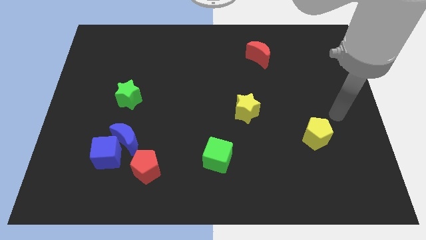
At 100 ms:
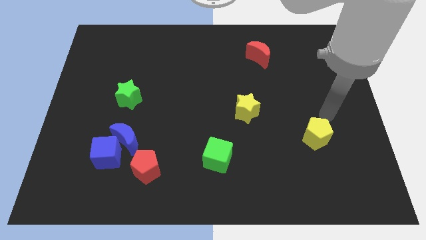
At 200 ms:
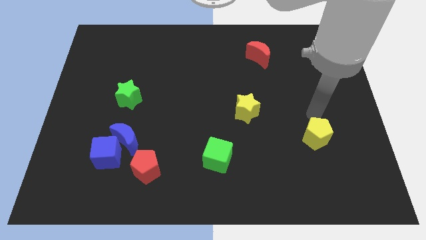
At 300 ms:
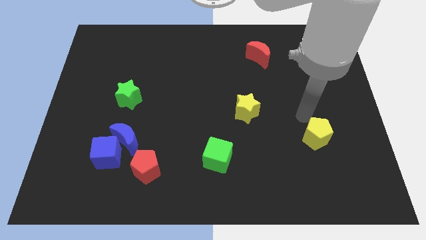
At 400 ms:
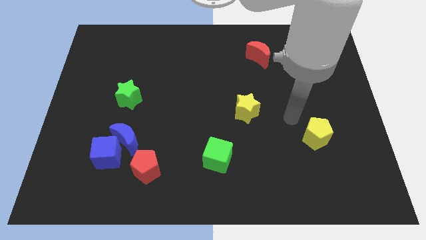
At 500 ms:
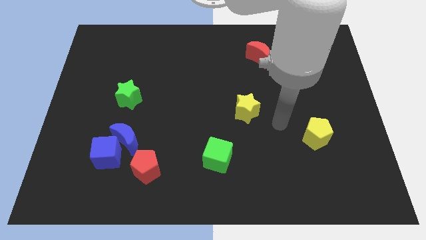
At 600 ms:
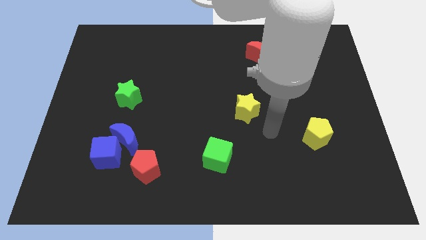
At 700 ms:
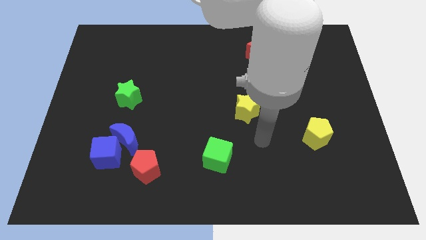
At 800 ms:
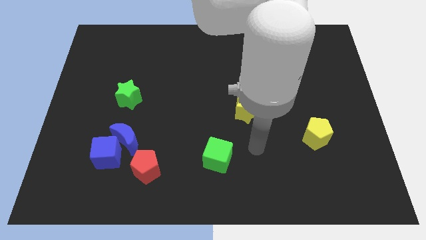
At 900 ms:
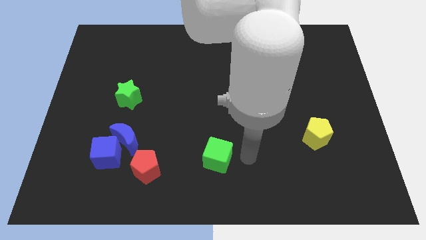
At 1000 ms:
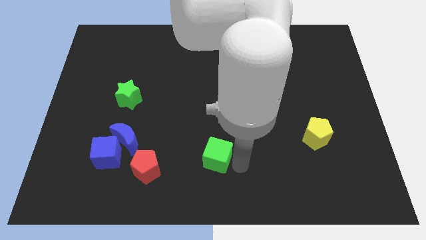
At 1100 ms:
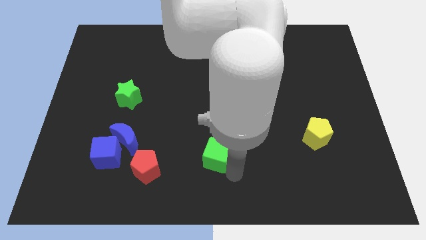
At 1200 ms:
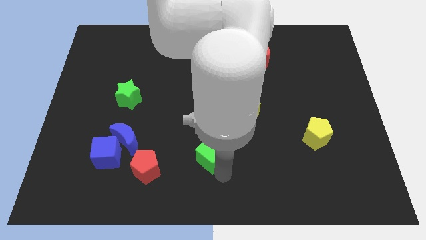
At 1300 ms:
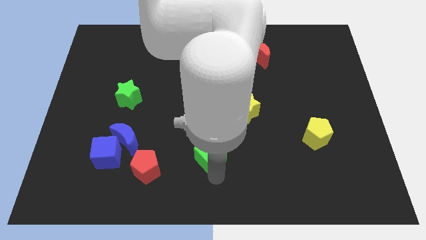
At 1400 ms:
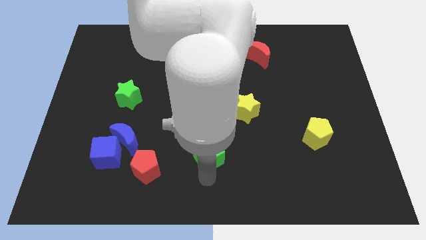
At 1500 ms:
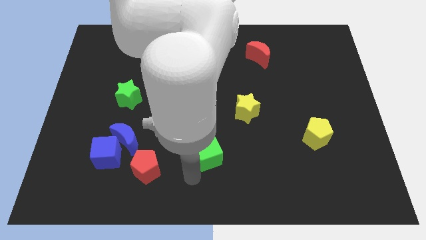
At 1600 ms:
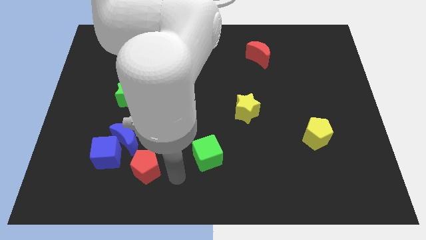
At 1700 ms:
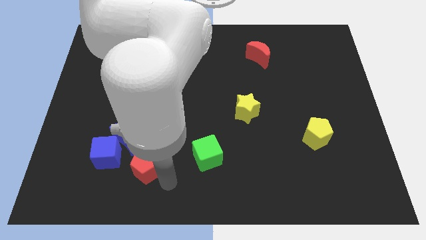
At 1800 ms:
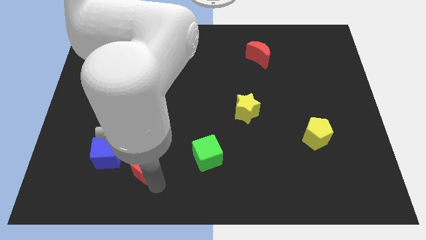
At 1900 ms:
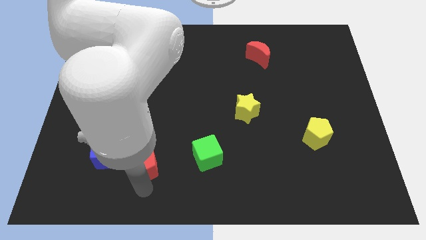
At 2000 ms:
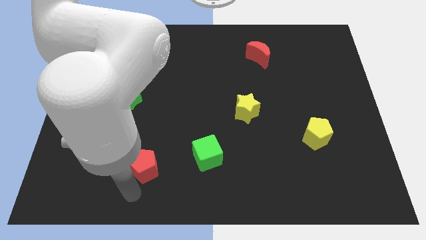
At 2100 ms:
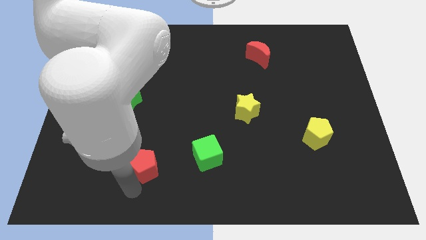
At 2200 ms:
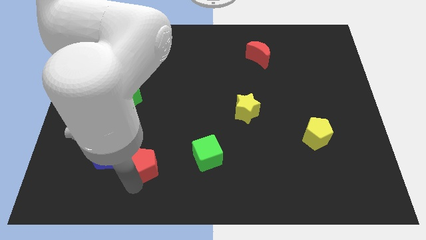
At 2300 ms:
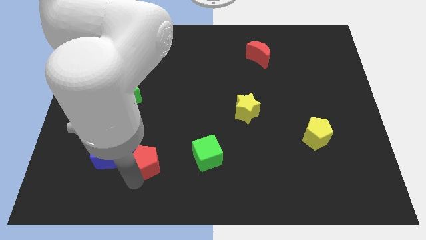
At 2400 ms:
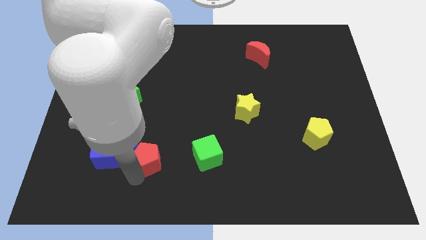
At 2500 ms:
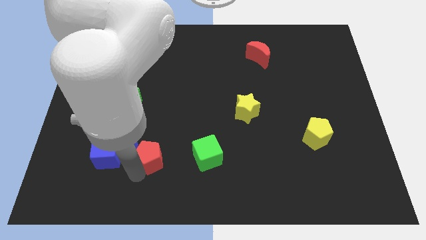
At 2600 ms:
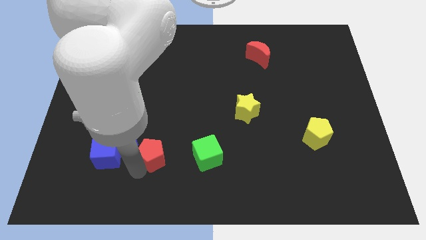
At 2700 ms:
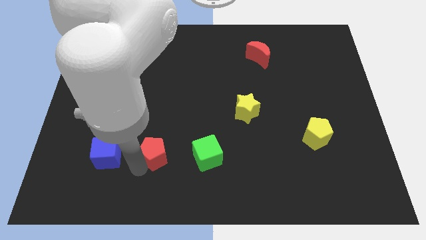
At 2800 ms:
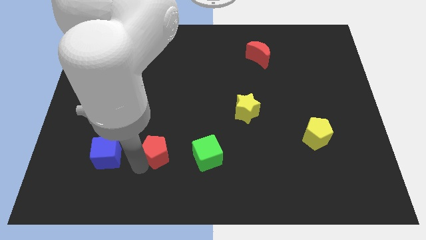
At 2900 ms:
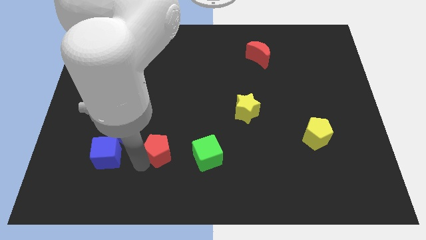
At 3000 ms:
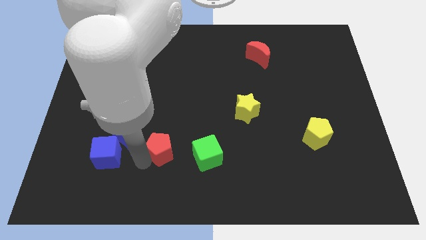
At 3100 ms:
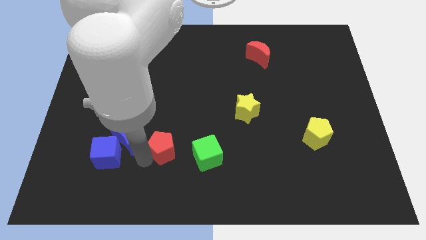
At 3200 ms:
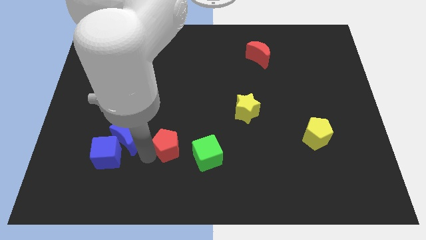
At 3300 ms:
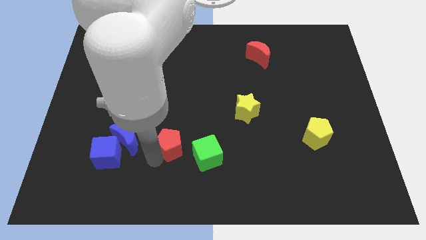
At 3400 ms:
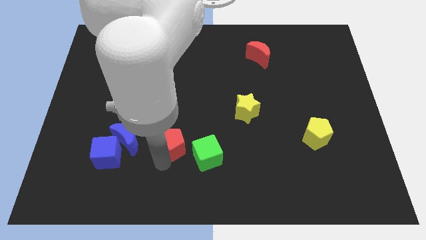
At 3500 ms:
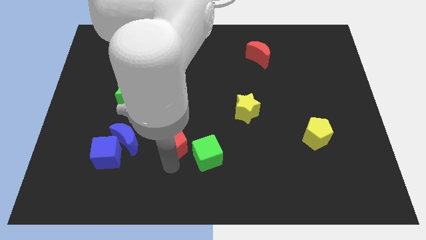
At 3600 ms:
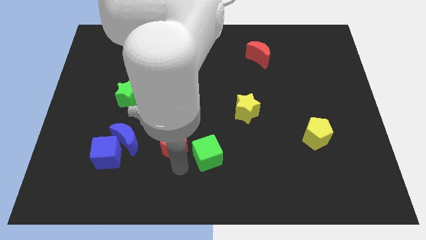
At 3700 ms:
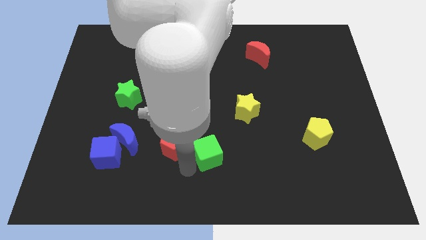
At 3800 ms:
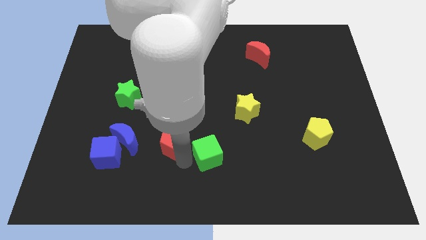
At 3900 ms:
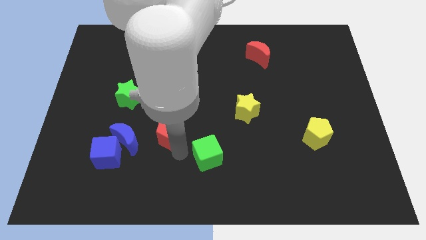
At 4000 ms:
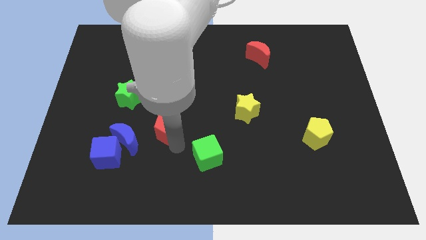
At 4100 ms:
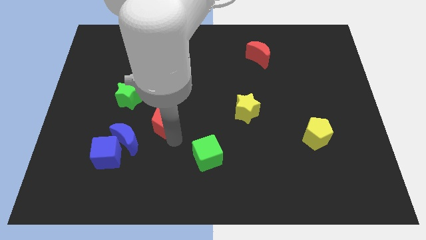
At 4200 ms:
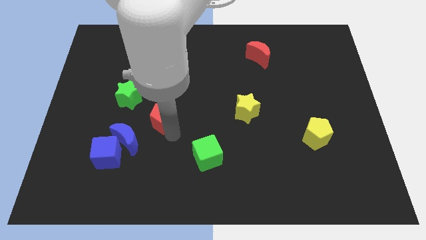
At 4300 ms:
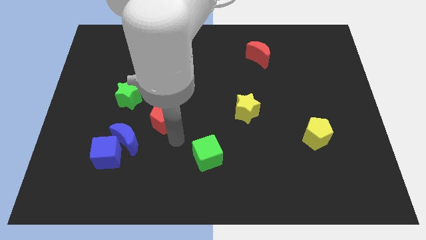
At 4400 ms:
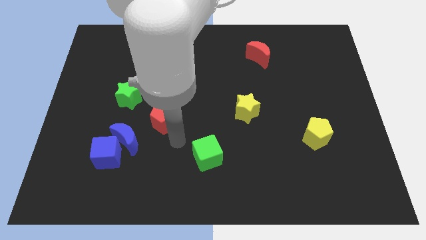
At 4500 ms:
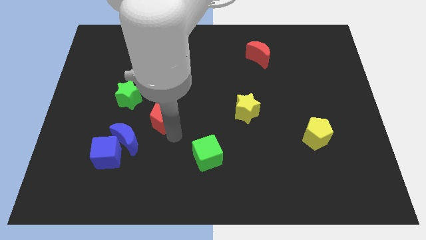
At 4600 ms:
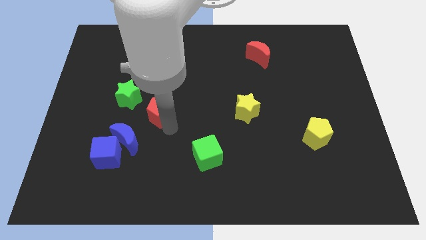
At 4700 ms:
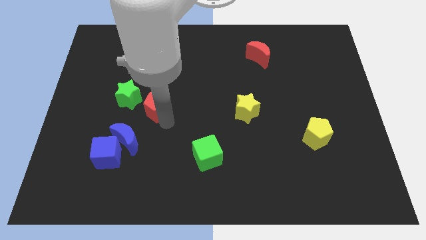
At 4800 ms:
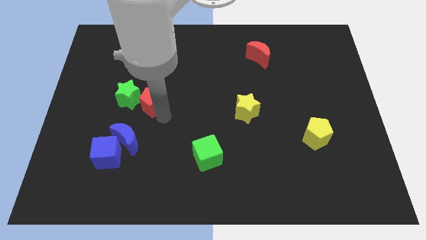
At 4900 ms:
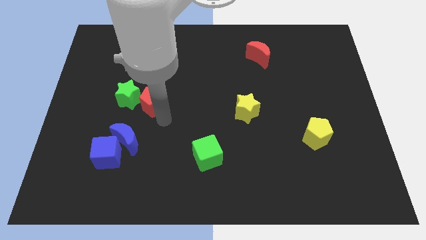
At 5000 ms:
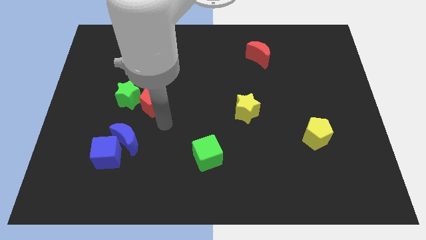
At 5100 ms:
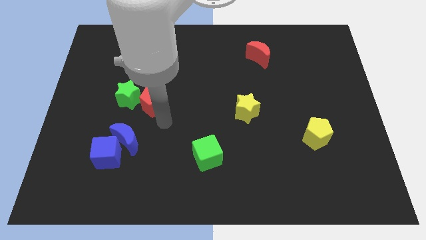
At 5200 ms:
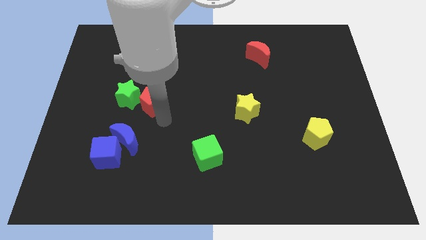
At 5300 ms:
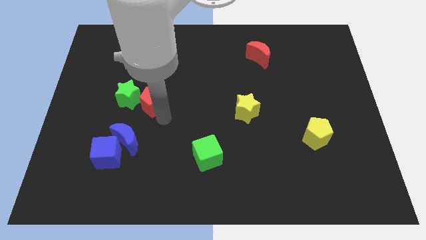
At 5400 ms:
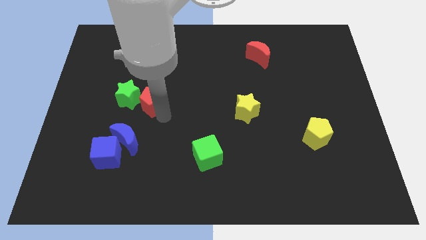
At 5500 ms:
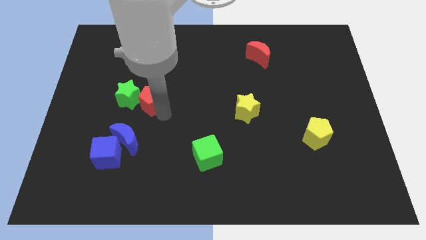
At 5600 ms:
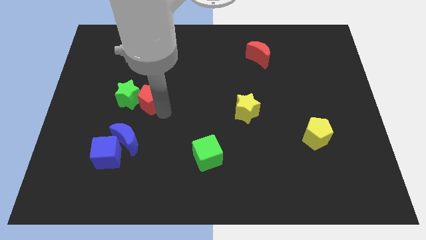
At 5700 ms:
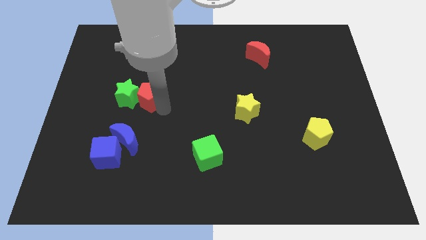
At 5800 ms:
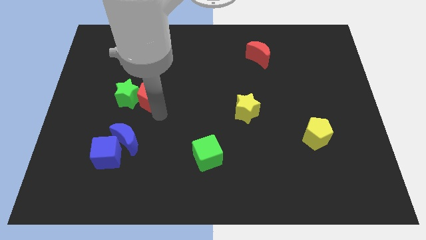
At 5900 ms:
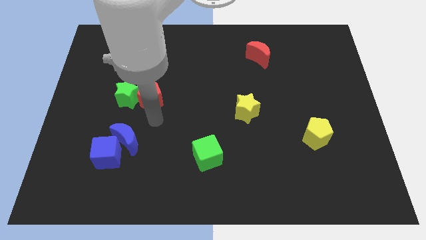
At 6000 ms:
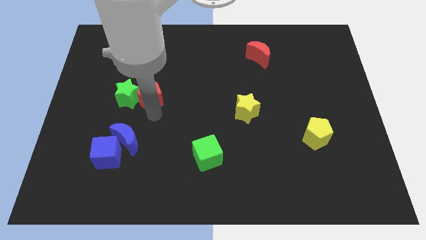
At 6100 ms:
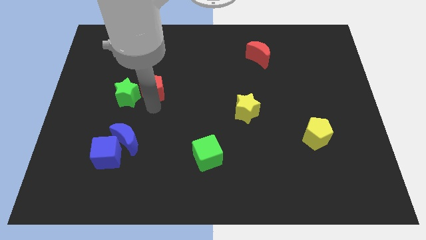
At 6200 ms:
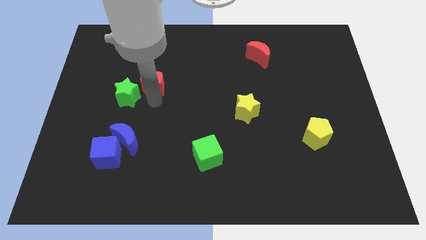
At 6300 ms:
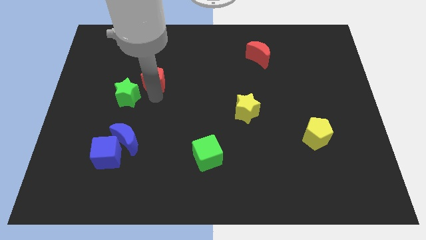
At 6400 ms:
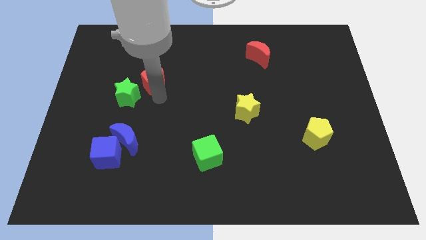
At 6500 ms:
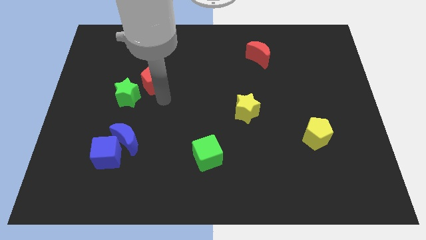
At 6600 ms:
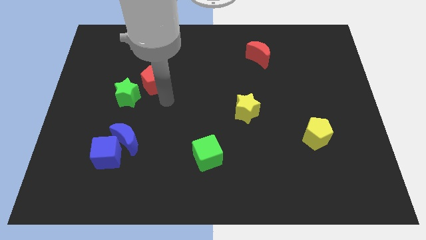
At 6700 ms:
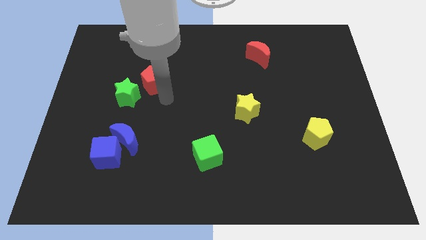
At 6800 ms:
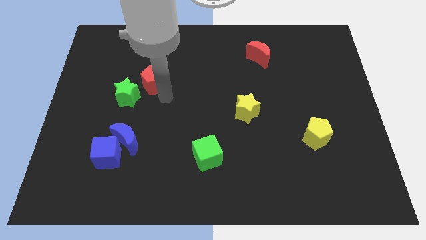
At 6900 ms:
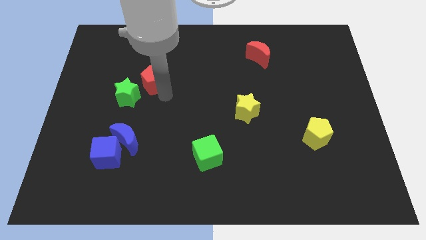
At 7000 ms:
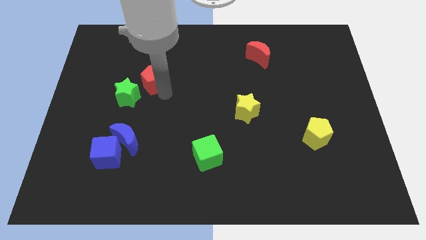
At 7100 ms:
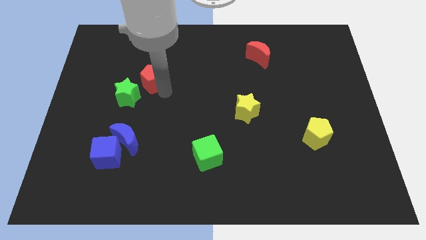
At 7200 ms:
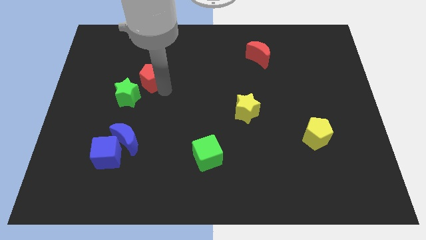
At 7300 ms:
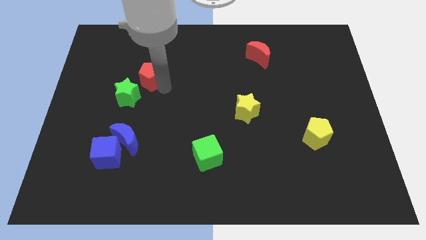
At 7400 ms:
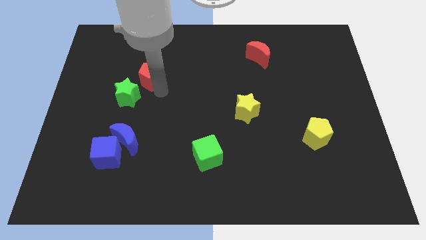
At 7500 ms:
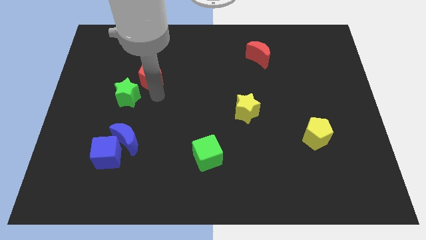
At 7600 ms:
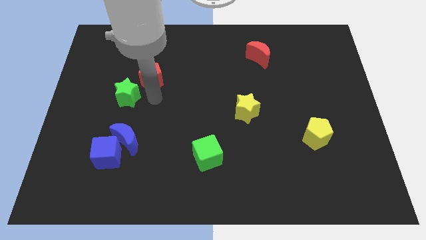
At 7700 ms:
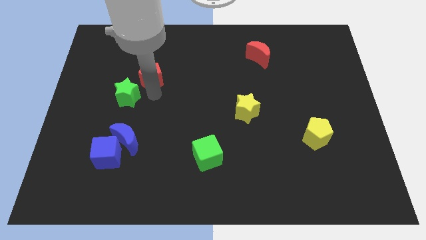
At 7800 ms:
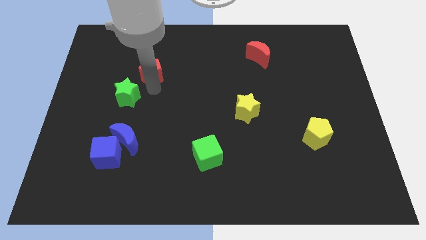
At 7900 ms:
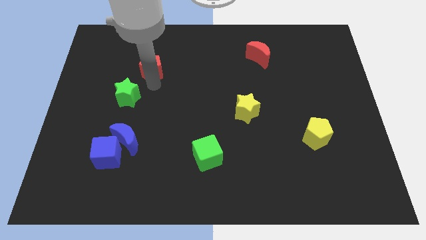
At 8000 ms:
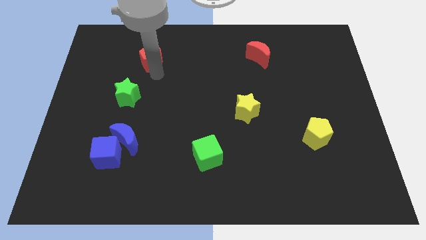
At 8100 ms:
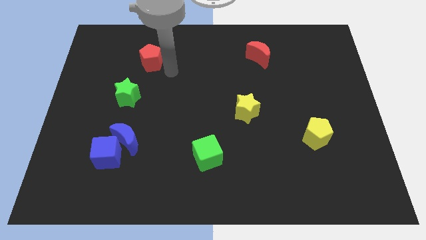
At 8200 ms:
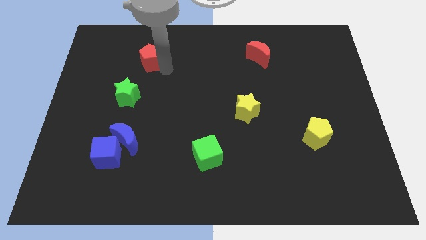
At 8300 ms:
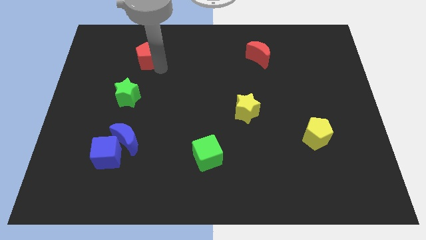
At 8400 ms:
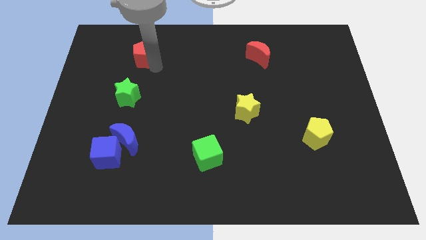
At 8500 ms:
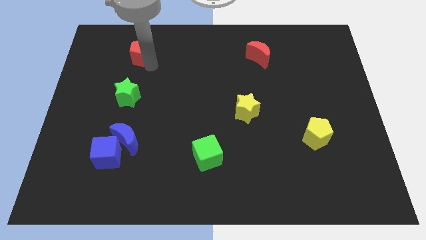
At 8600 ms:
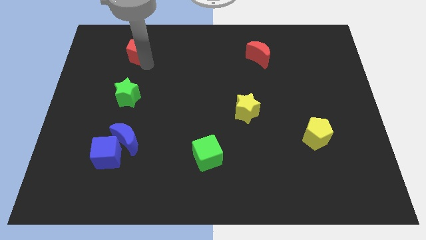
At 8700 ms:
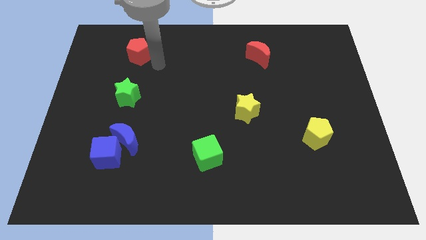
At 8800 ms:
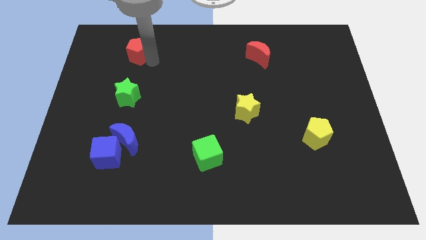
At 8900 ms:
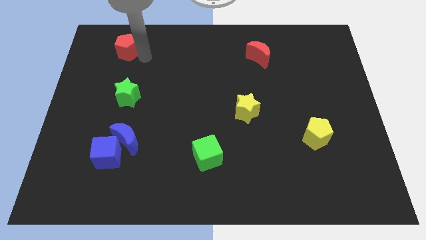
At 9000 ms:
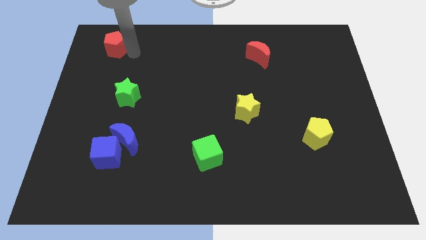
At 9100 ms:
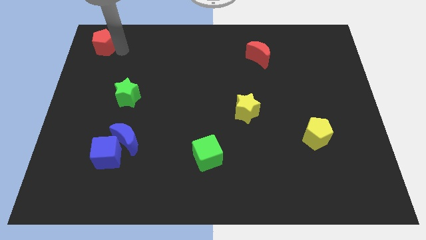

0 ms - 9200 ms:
move the red pentagon to the top left corner
